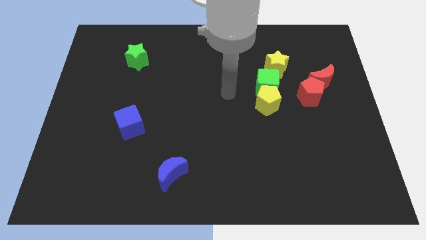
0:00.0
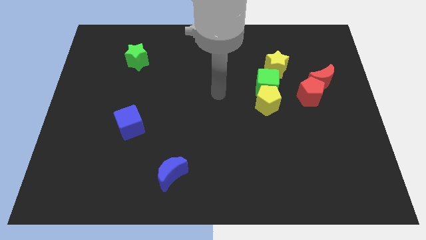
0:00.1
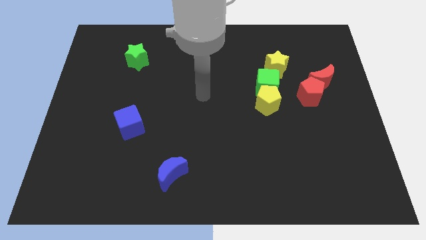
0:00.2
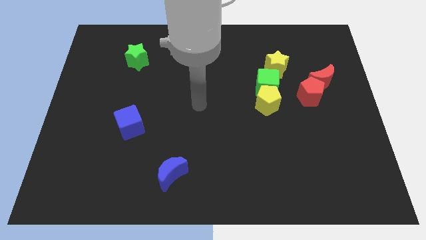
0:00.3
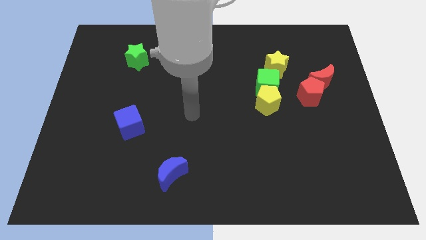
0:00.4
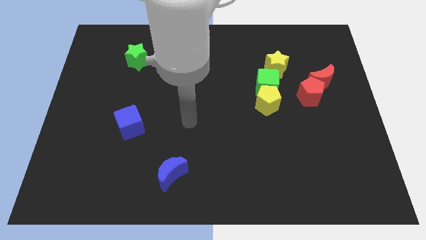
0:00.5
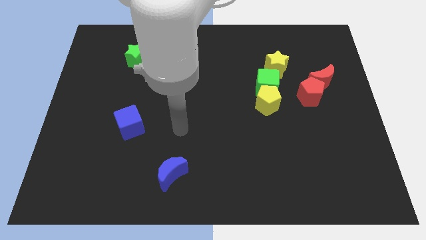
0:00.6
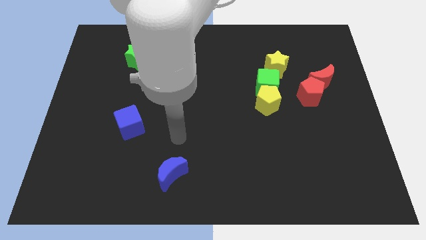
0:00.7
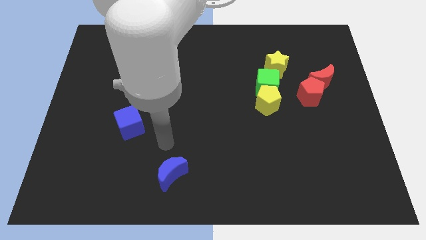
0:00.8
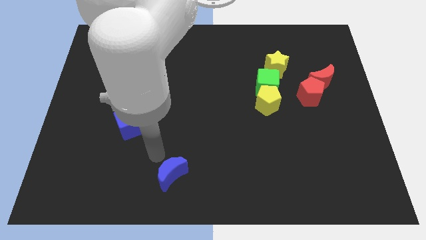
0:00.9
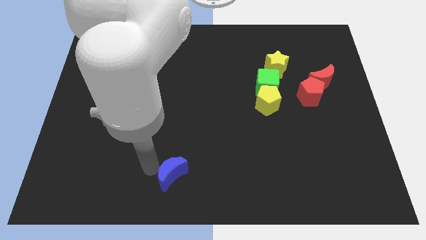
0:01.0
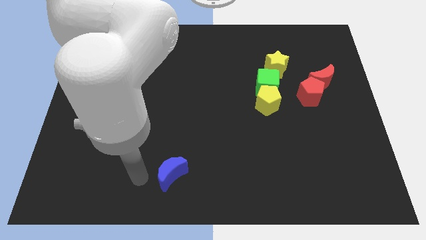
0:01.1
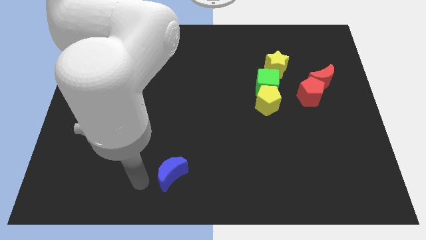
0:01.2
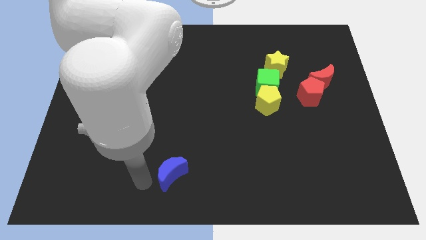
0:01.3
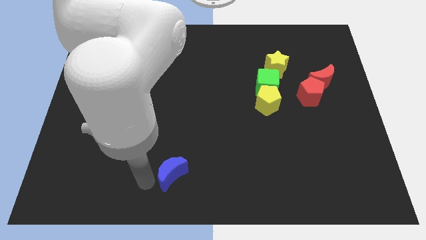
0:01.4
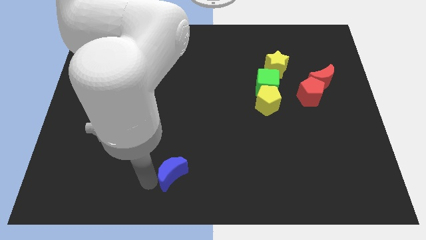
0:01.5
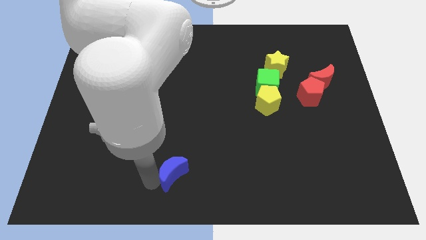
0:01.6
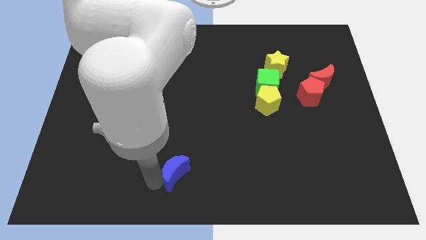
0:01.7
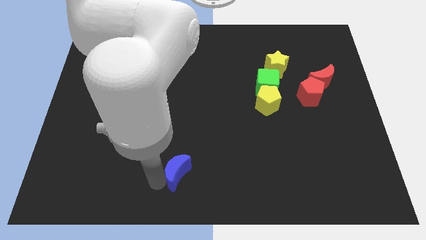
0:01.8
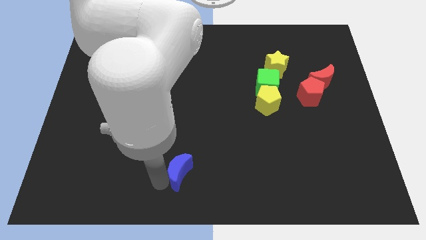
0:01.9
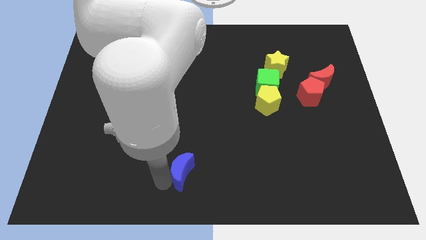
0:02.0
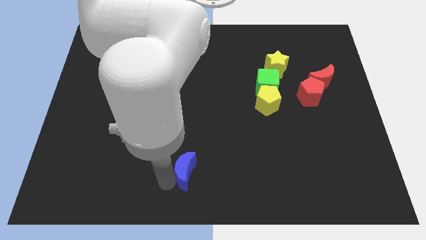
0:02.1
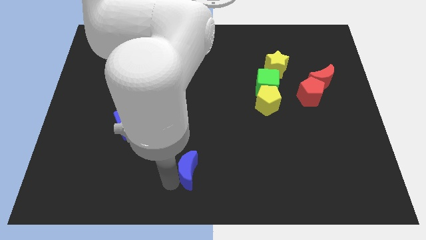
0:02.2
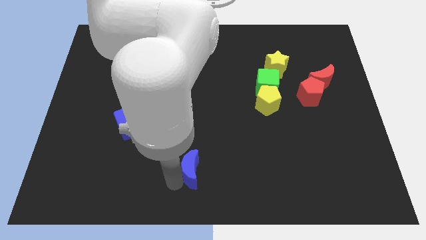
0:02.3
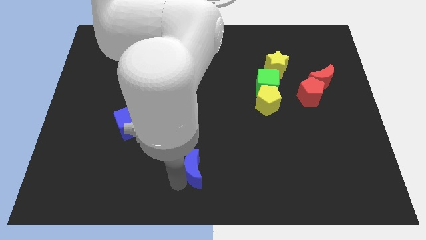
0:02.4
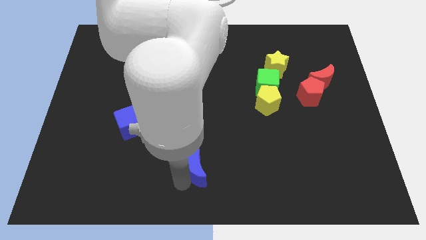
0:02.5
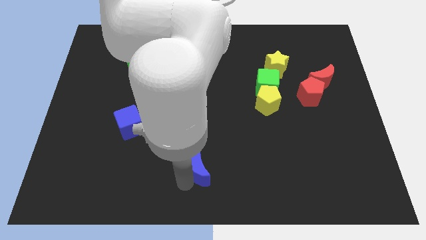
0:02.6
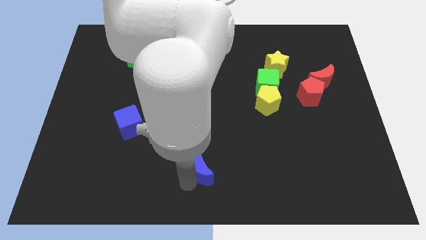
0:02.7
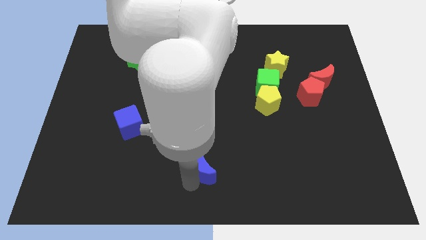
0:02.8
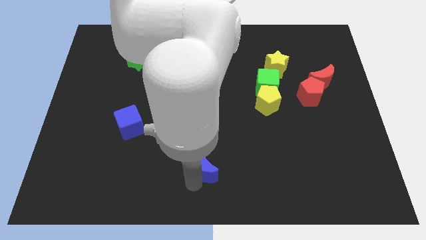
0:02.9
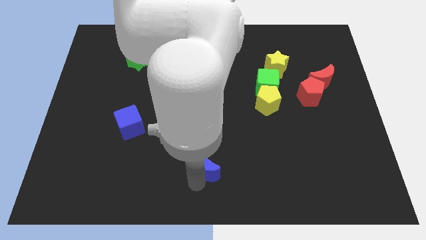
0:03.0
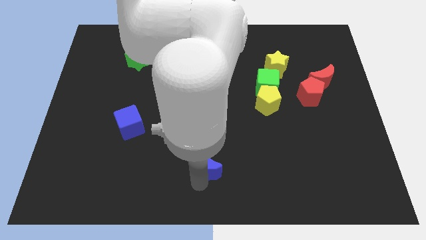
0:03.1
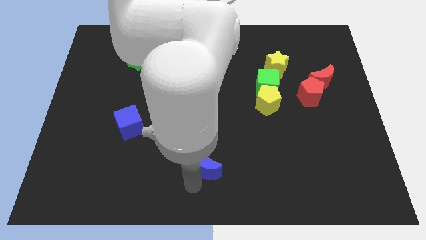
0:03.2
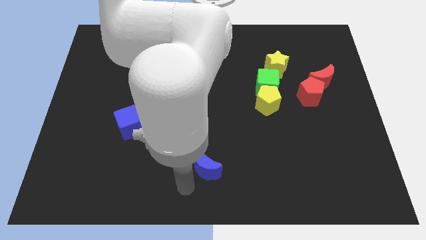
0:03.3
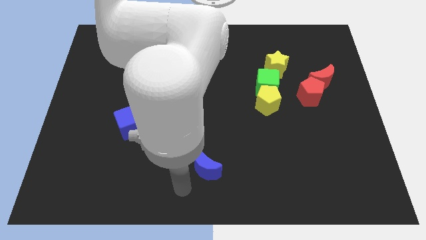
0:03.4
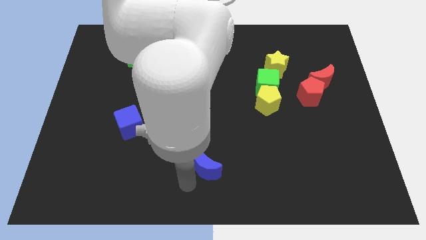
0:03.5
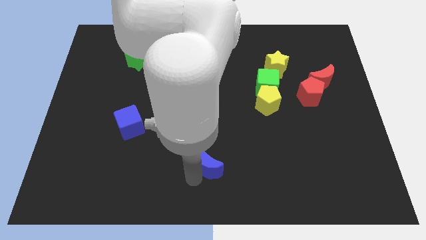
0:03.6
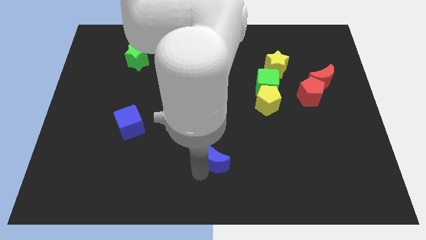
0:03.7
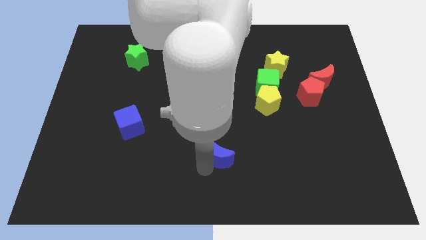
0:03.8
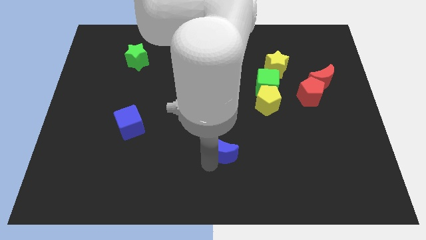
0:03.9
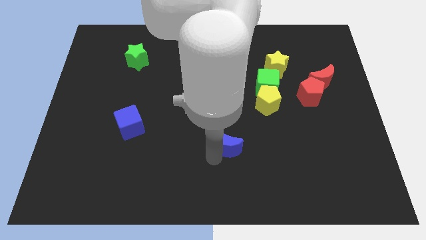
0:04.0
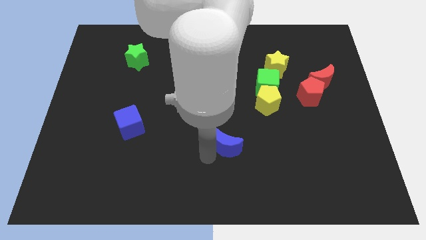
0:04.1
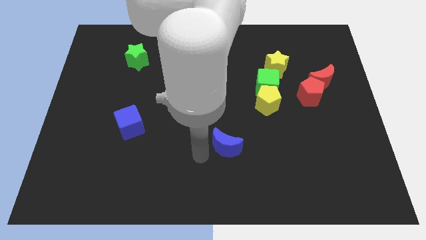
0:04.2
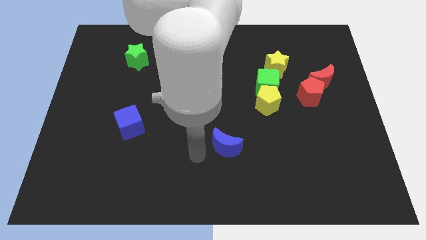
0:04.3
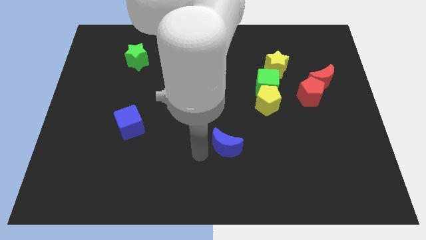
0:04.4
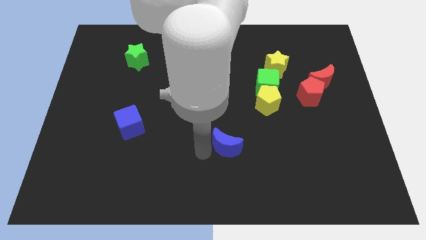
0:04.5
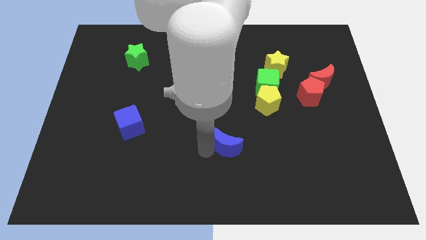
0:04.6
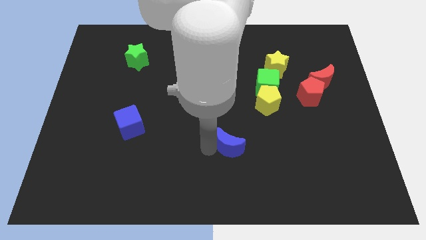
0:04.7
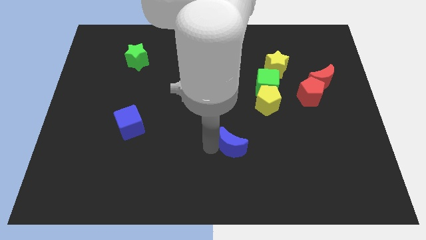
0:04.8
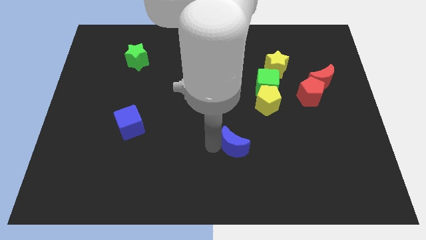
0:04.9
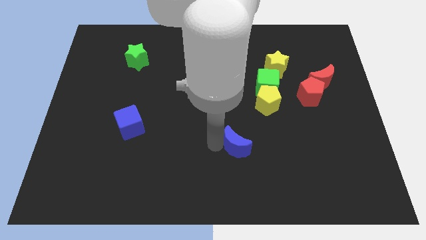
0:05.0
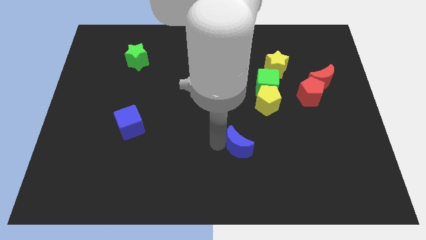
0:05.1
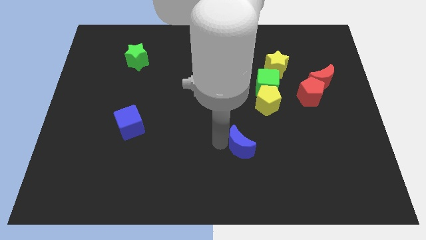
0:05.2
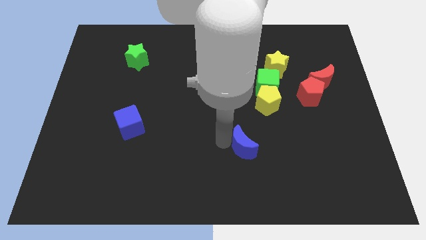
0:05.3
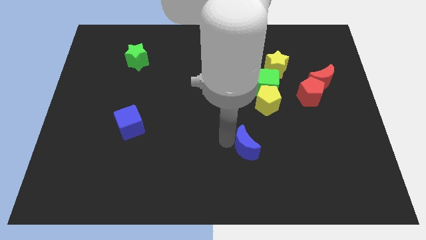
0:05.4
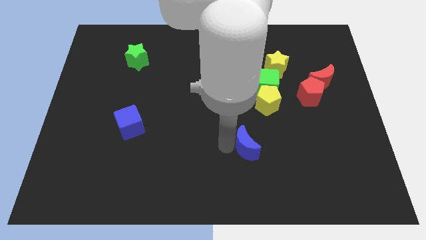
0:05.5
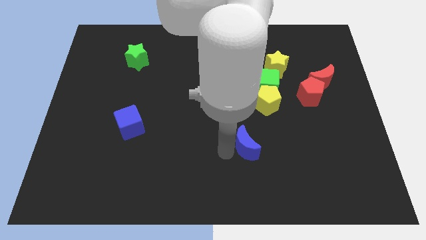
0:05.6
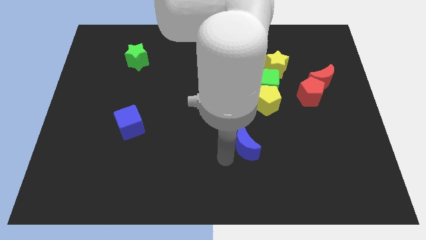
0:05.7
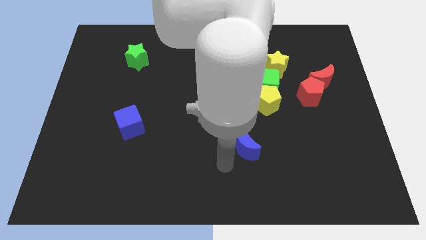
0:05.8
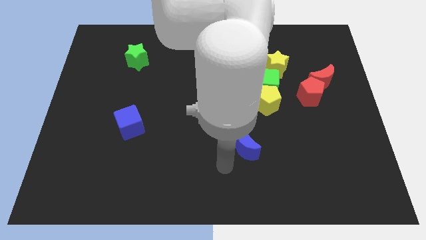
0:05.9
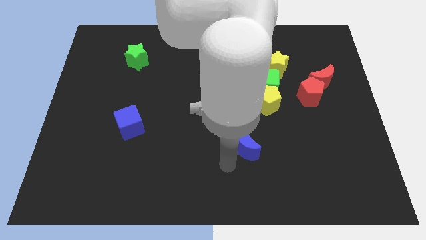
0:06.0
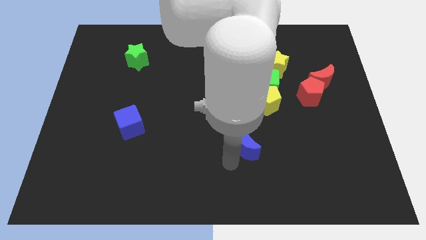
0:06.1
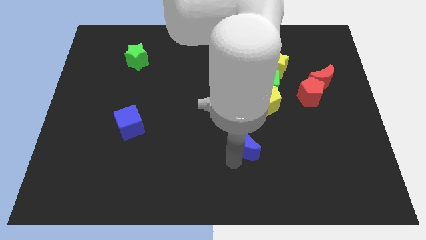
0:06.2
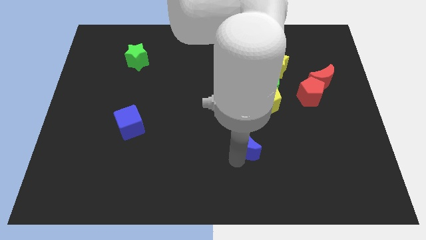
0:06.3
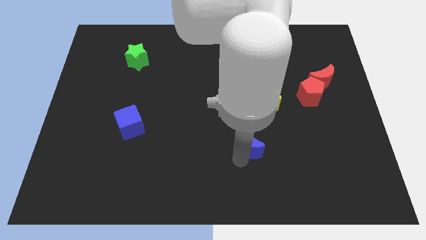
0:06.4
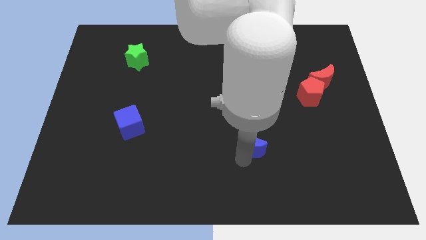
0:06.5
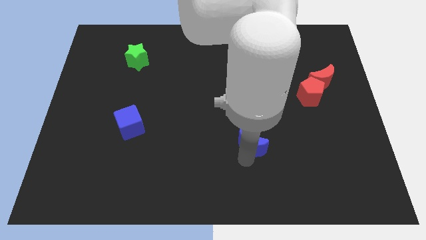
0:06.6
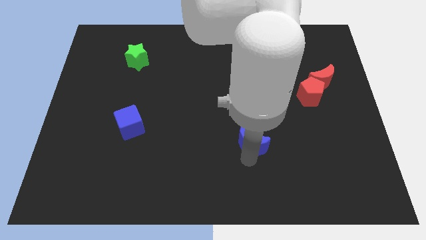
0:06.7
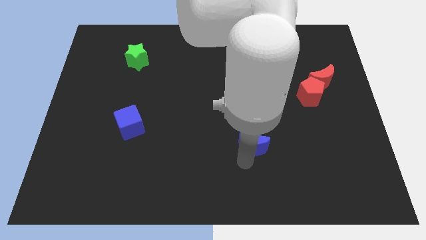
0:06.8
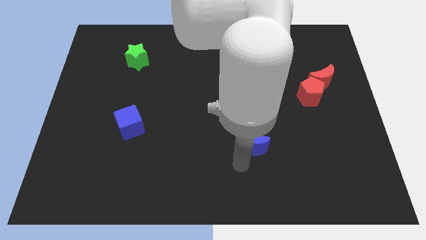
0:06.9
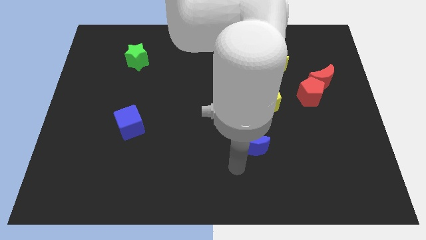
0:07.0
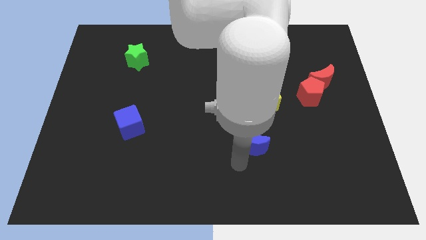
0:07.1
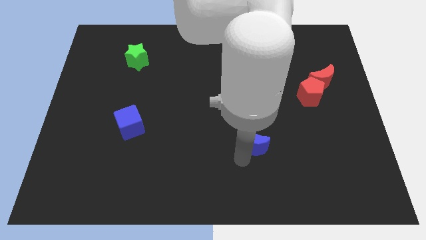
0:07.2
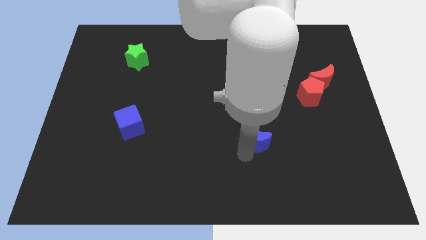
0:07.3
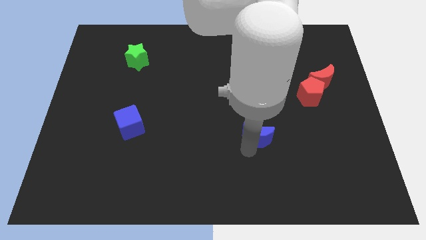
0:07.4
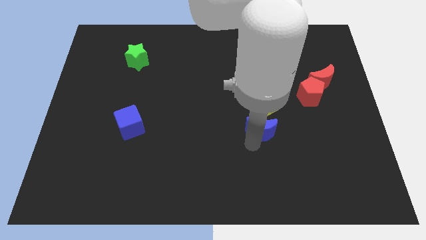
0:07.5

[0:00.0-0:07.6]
put the blue moon to the bottom of the green cube
